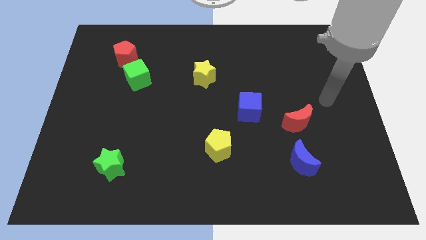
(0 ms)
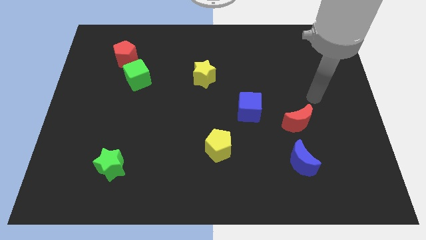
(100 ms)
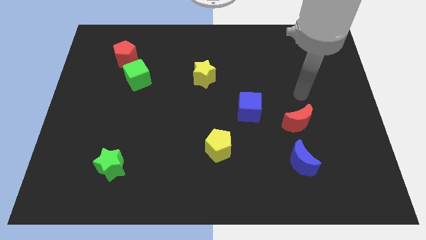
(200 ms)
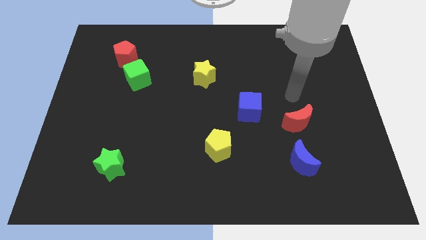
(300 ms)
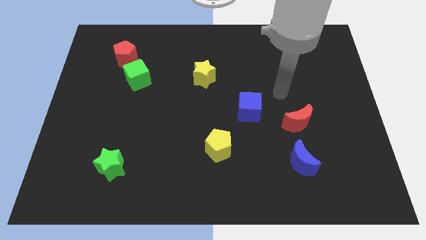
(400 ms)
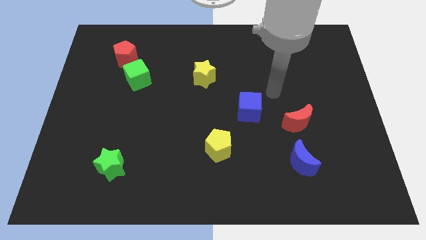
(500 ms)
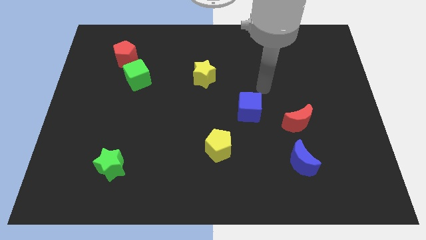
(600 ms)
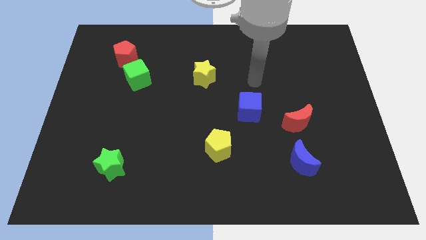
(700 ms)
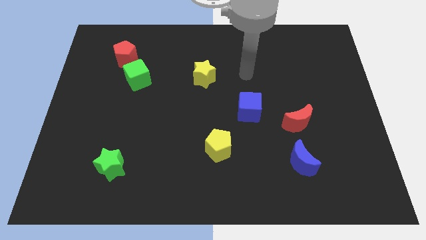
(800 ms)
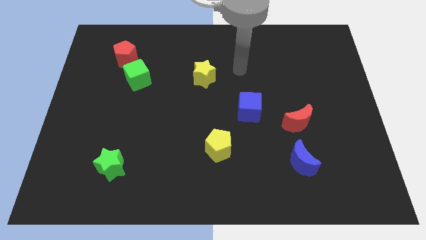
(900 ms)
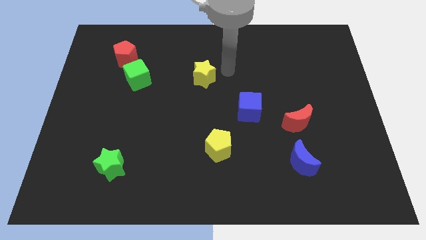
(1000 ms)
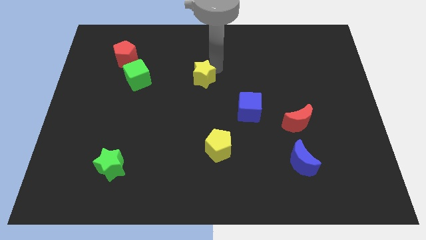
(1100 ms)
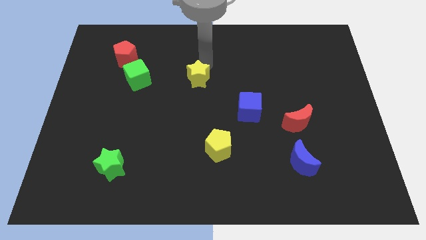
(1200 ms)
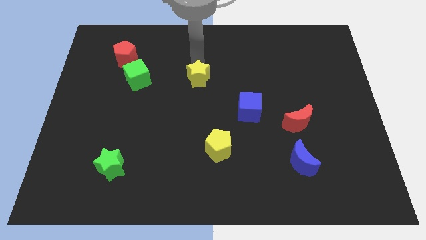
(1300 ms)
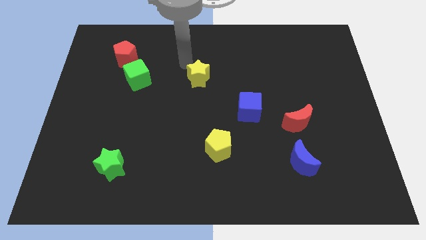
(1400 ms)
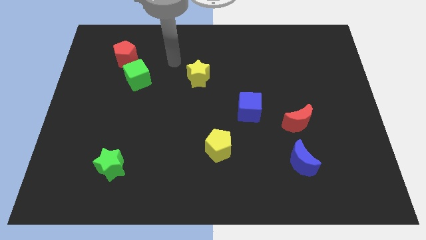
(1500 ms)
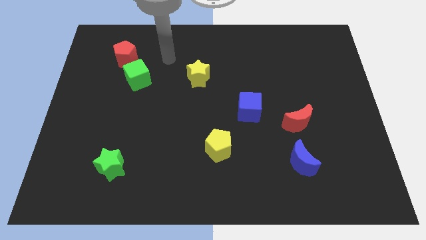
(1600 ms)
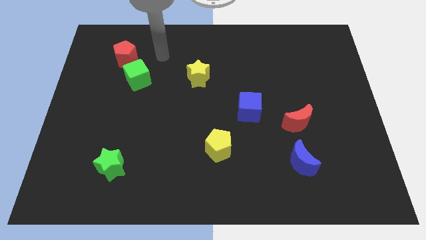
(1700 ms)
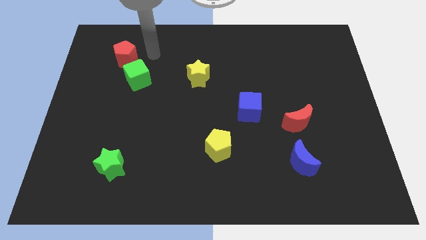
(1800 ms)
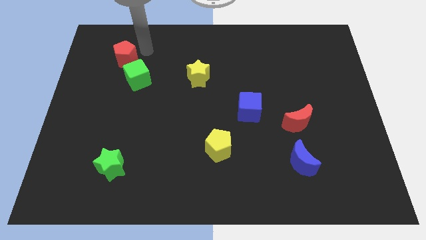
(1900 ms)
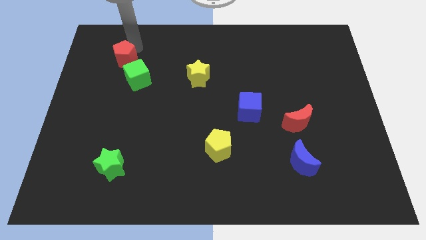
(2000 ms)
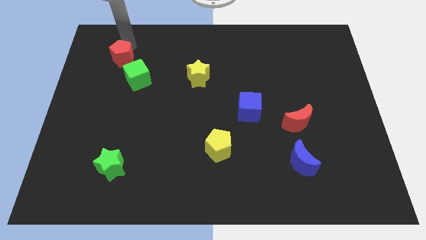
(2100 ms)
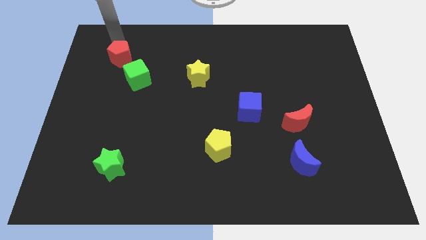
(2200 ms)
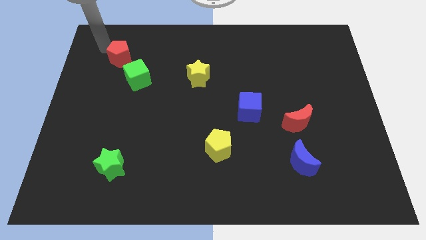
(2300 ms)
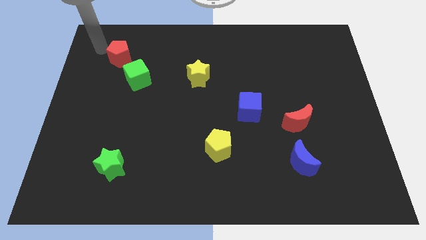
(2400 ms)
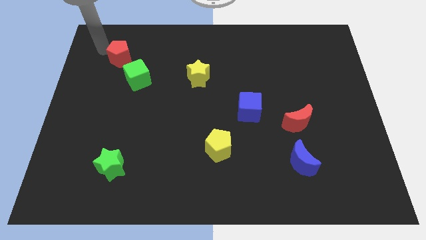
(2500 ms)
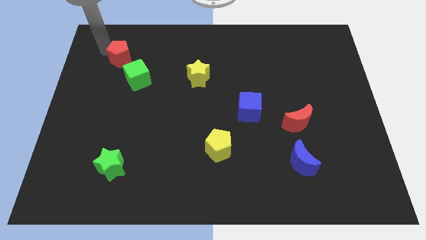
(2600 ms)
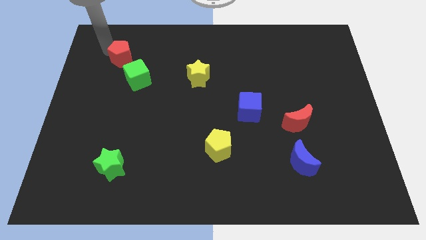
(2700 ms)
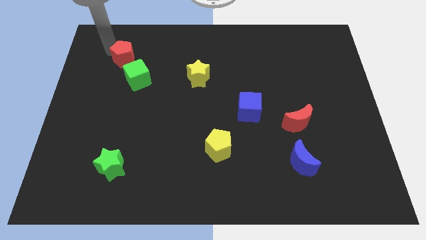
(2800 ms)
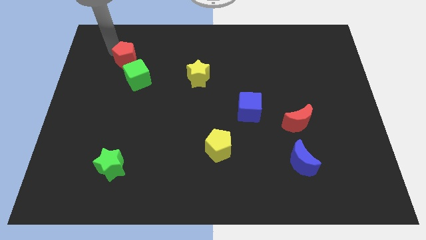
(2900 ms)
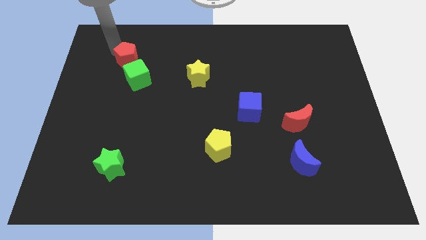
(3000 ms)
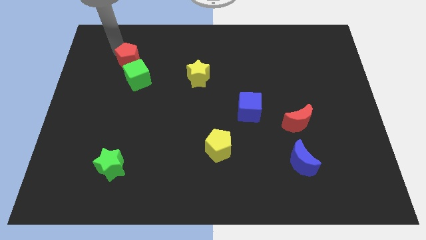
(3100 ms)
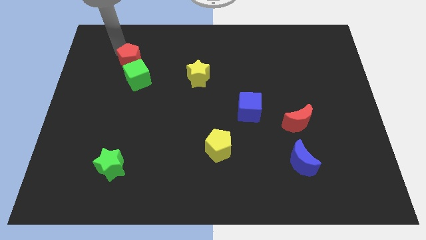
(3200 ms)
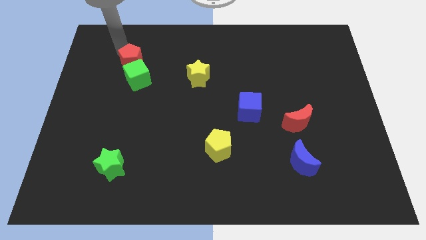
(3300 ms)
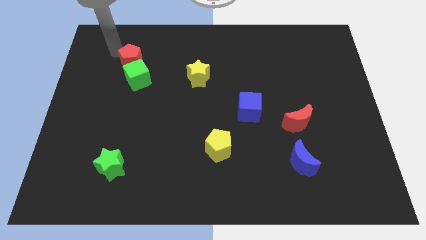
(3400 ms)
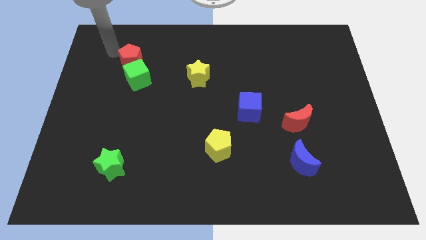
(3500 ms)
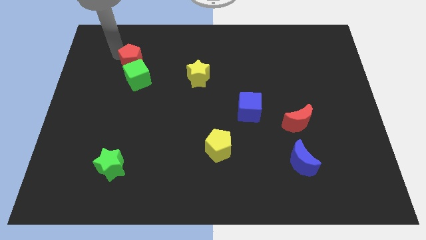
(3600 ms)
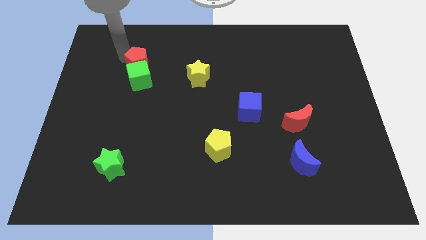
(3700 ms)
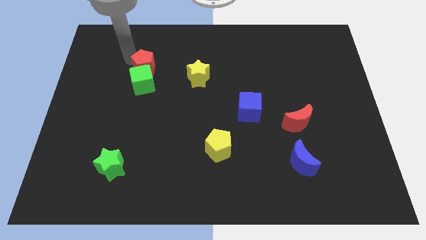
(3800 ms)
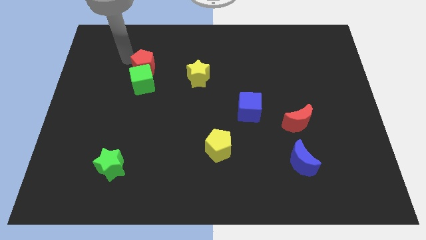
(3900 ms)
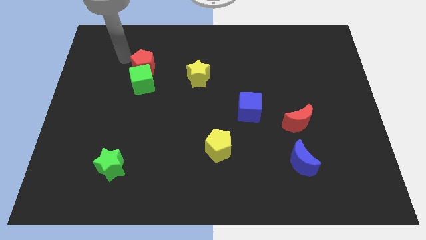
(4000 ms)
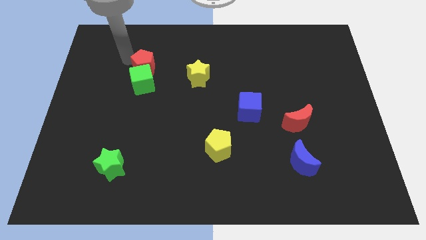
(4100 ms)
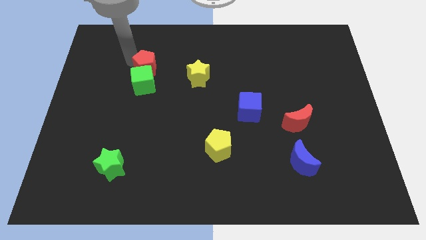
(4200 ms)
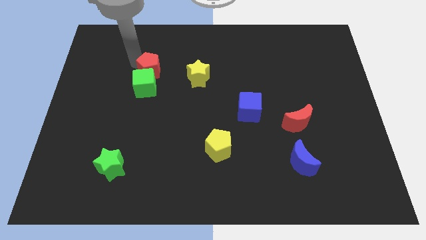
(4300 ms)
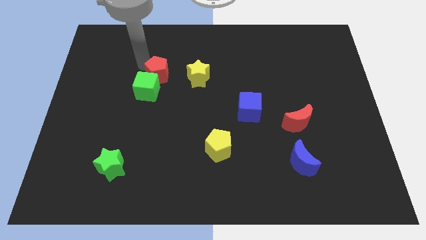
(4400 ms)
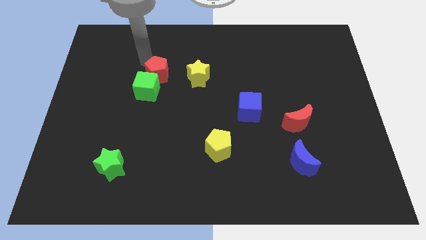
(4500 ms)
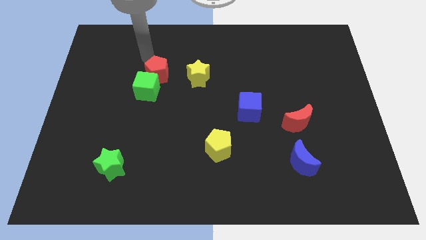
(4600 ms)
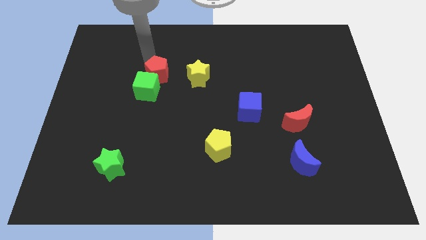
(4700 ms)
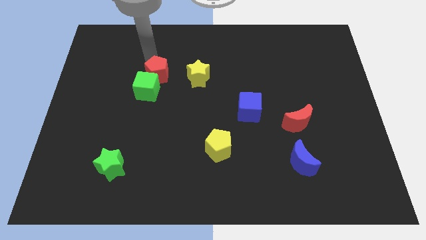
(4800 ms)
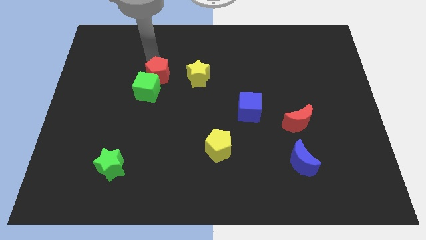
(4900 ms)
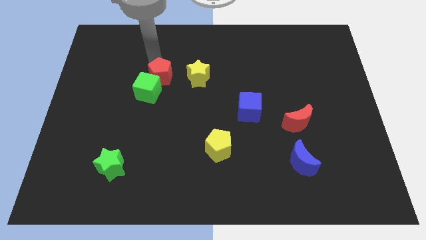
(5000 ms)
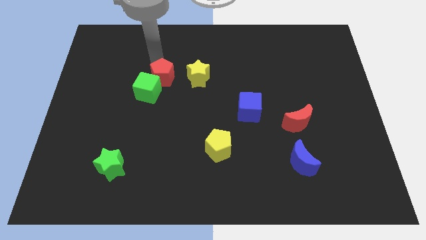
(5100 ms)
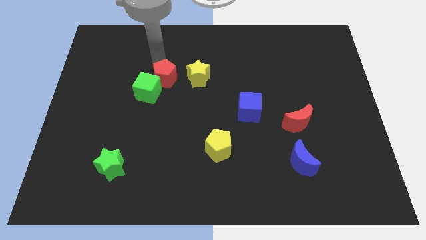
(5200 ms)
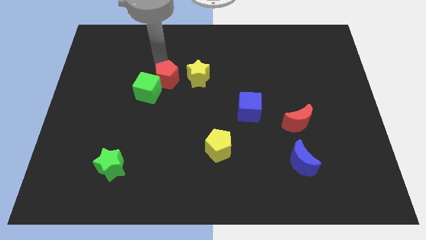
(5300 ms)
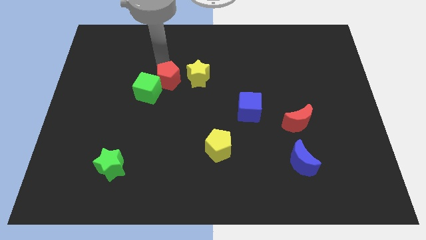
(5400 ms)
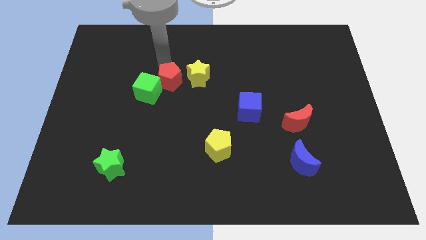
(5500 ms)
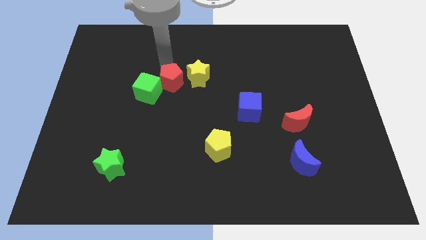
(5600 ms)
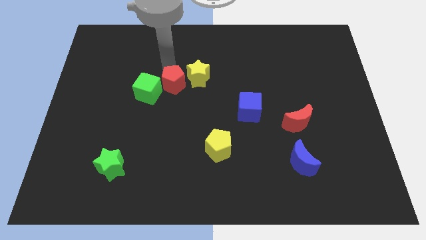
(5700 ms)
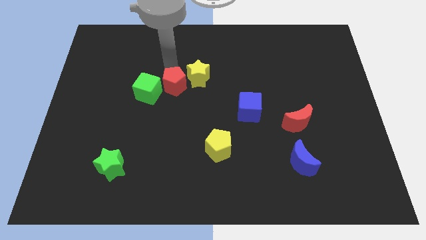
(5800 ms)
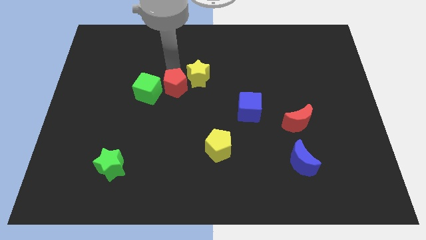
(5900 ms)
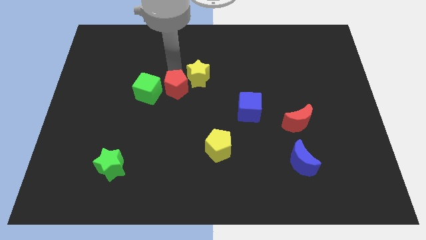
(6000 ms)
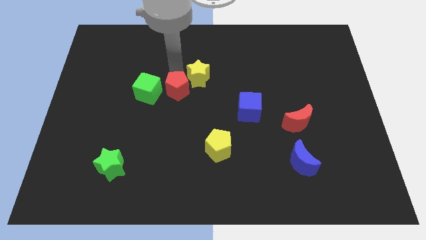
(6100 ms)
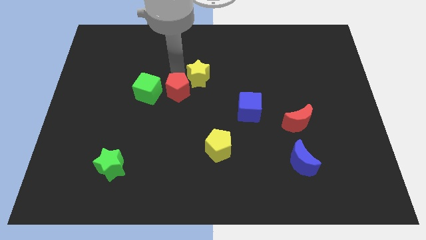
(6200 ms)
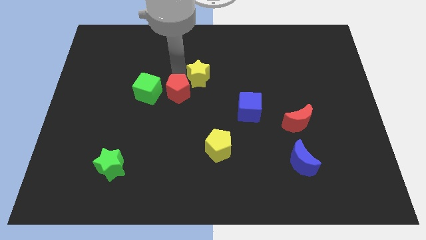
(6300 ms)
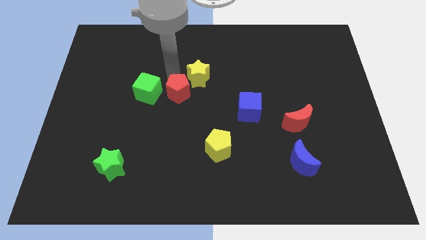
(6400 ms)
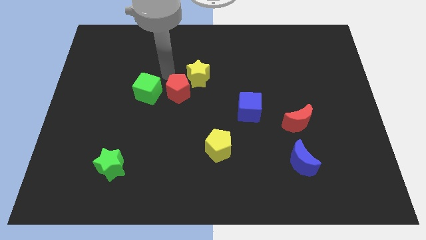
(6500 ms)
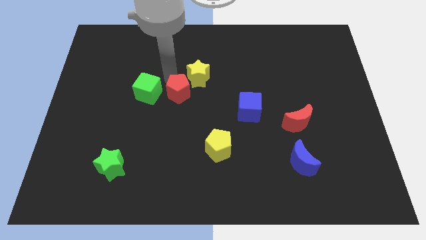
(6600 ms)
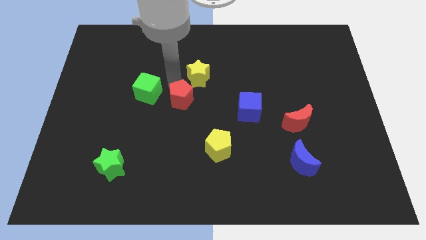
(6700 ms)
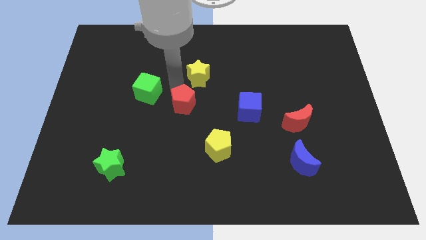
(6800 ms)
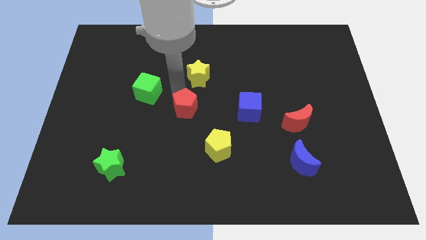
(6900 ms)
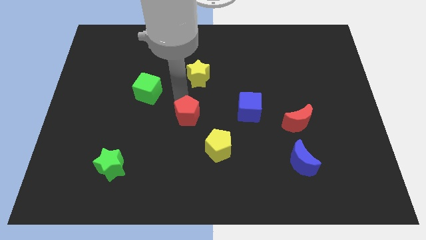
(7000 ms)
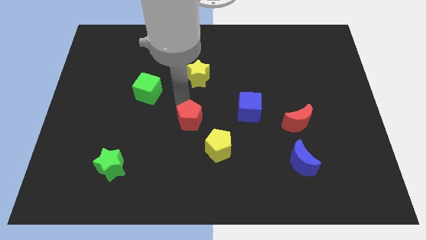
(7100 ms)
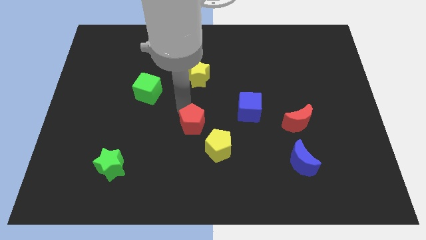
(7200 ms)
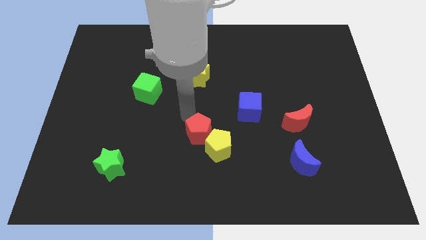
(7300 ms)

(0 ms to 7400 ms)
move the red pentagon close to the yellow pentagon

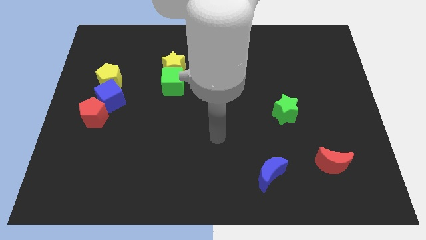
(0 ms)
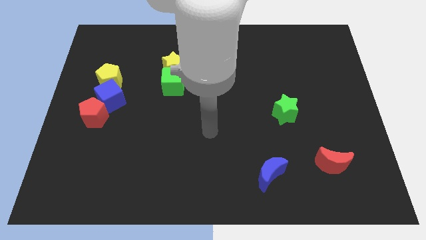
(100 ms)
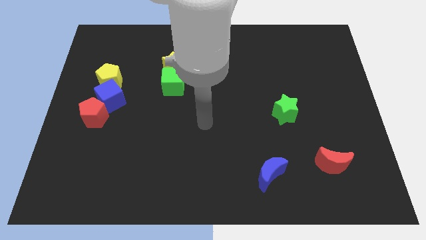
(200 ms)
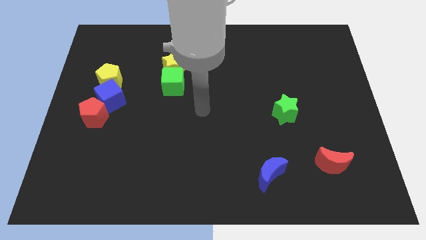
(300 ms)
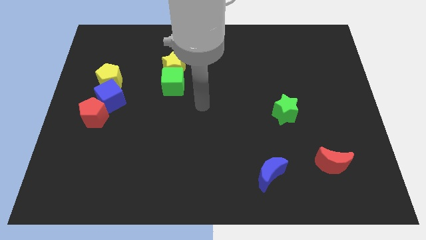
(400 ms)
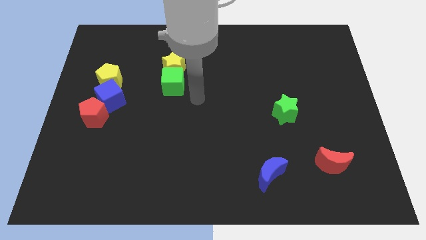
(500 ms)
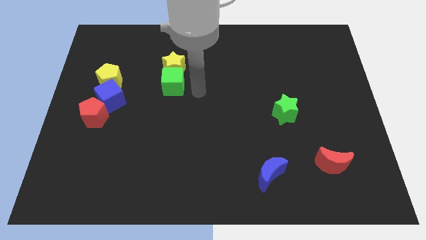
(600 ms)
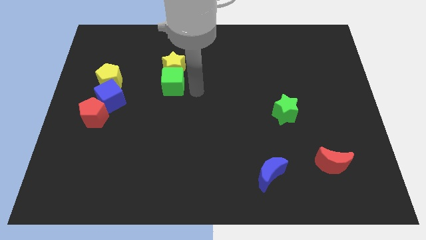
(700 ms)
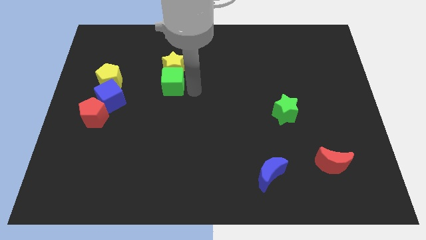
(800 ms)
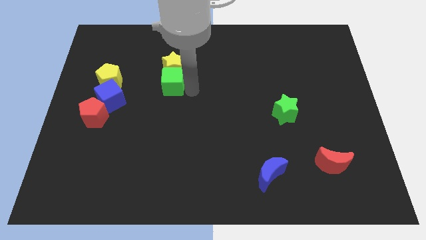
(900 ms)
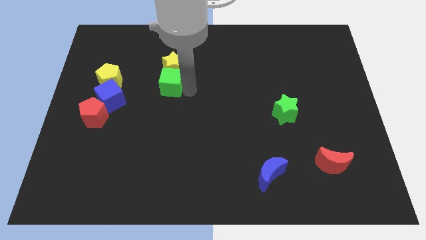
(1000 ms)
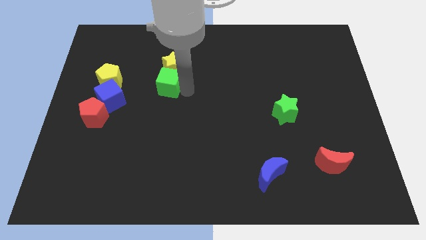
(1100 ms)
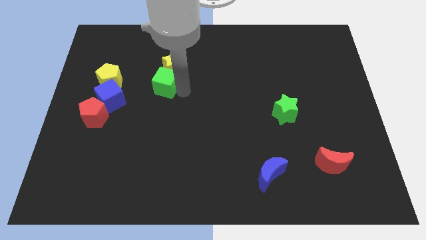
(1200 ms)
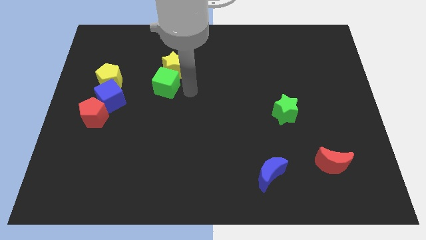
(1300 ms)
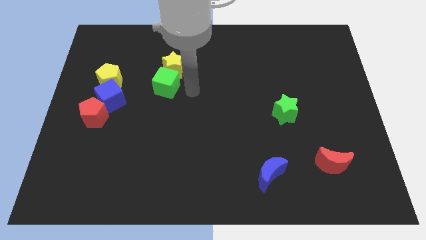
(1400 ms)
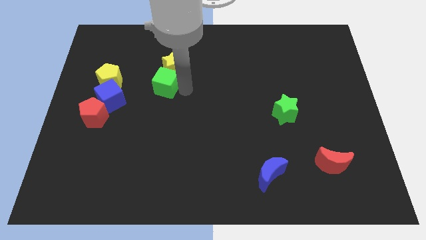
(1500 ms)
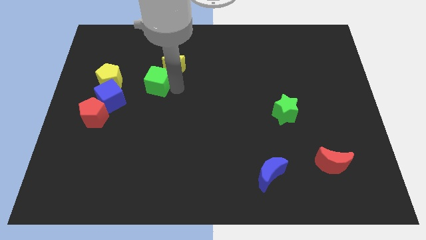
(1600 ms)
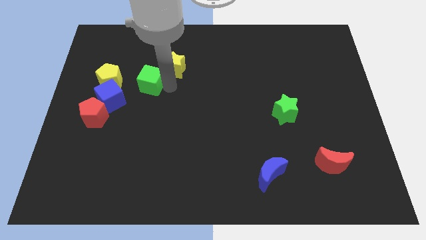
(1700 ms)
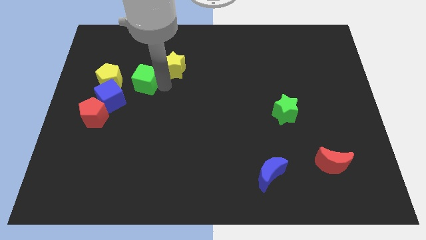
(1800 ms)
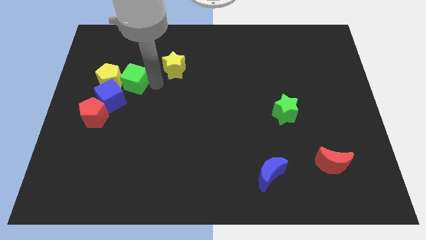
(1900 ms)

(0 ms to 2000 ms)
put the green cube to the yellow pentagon
